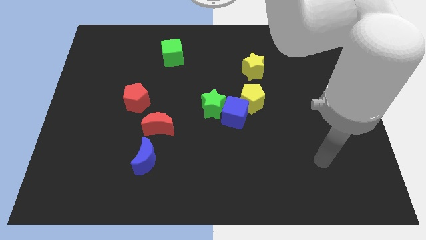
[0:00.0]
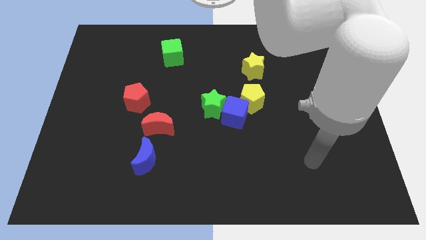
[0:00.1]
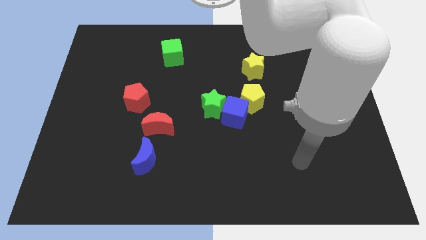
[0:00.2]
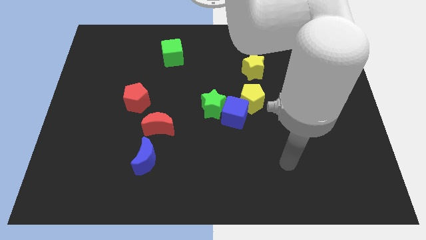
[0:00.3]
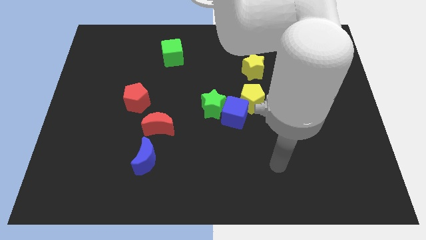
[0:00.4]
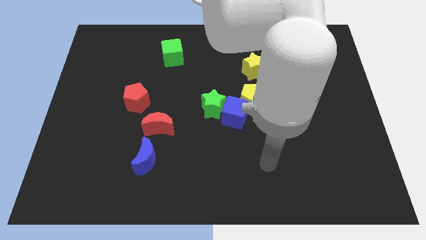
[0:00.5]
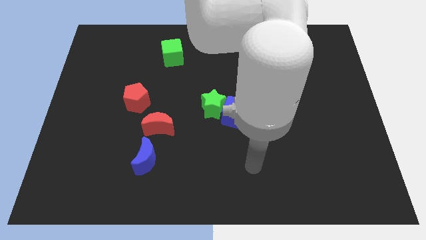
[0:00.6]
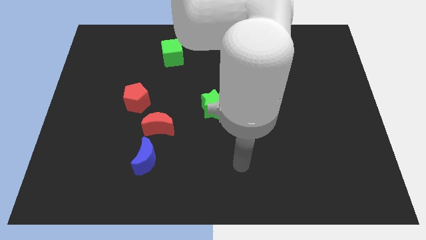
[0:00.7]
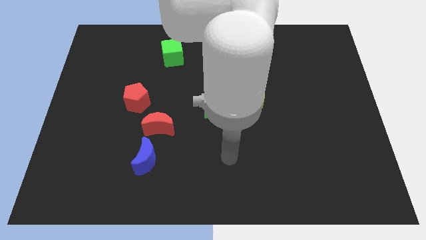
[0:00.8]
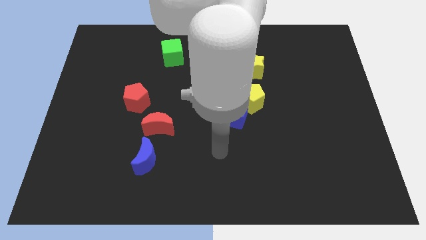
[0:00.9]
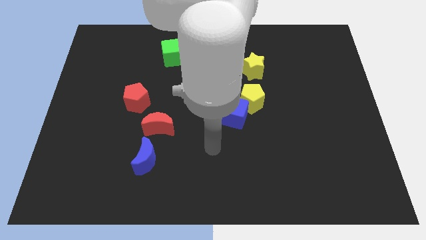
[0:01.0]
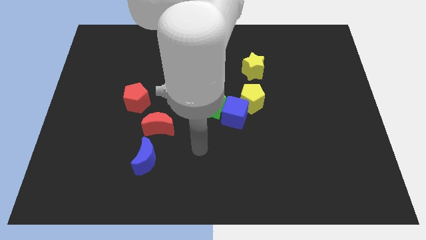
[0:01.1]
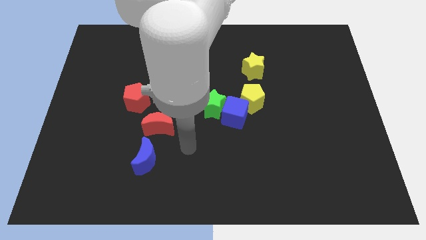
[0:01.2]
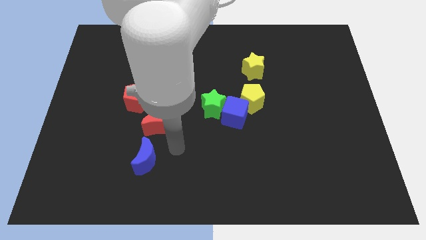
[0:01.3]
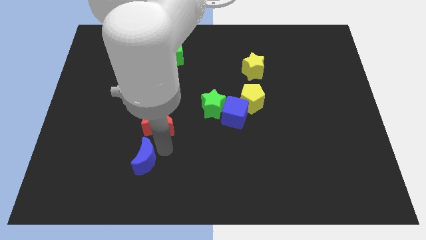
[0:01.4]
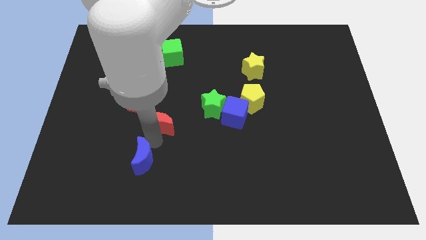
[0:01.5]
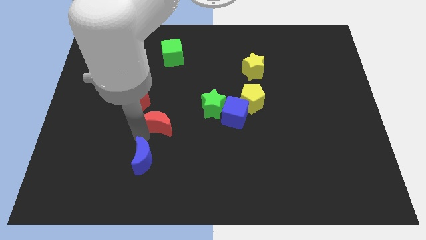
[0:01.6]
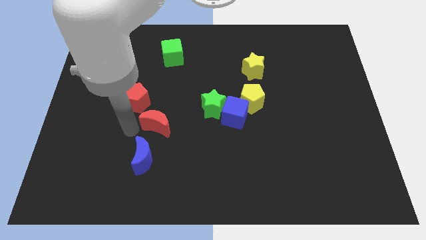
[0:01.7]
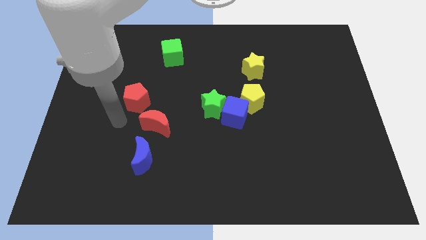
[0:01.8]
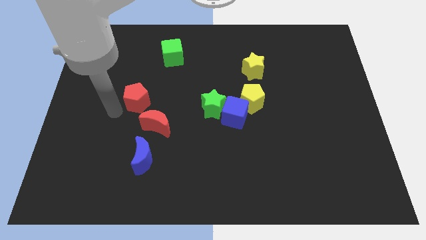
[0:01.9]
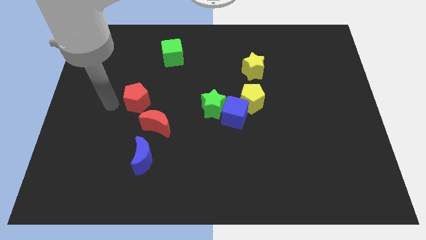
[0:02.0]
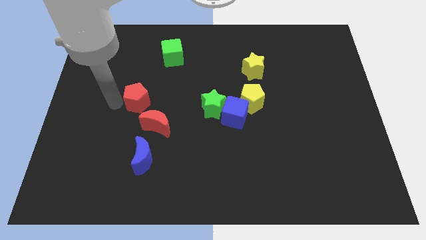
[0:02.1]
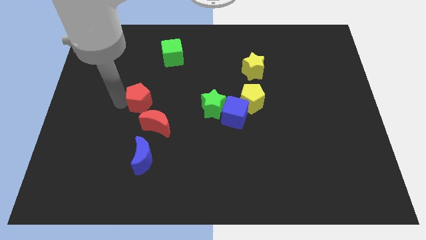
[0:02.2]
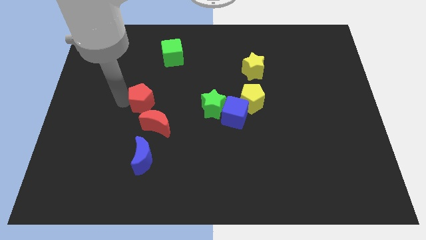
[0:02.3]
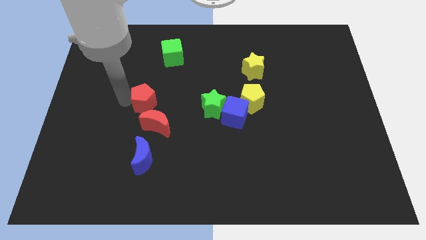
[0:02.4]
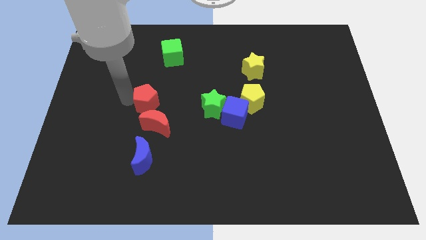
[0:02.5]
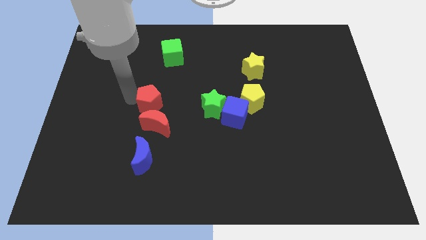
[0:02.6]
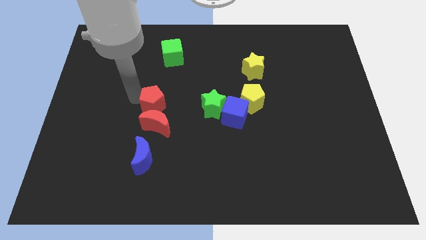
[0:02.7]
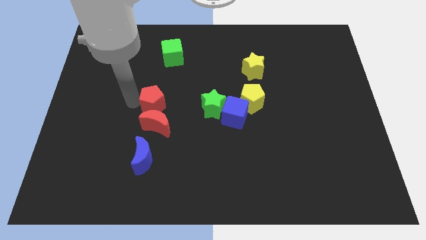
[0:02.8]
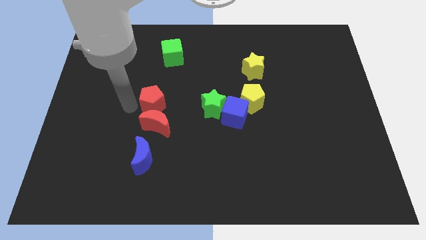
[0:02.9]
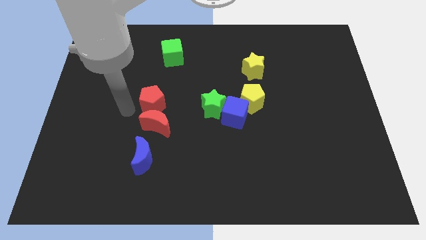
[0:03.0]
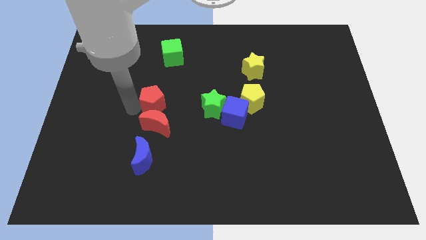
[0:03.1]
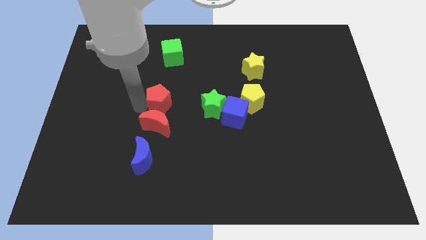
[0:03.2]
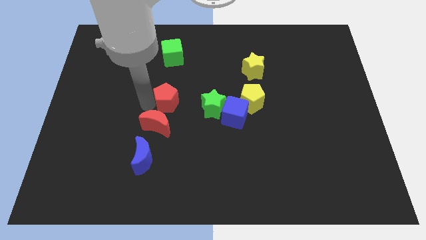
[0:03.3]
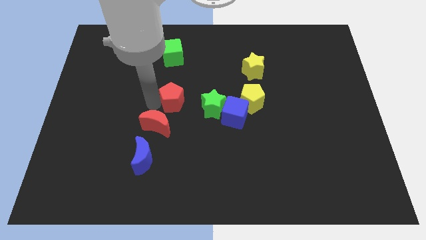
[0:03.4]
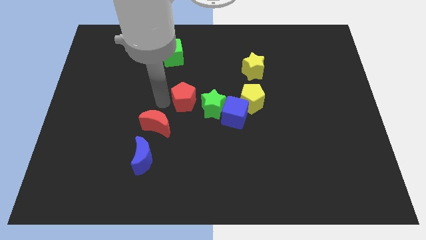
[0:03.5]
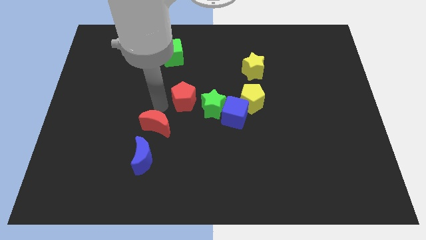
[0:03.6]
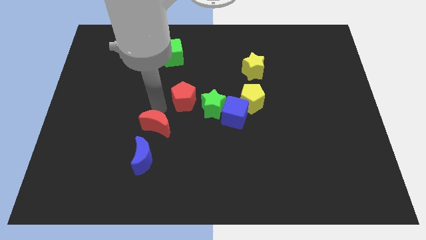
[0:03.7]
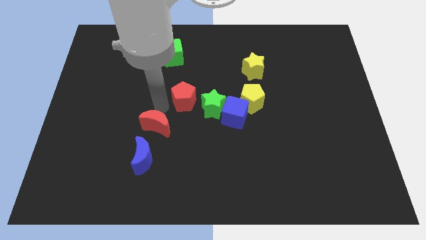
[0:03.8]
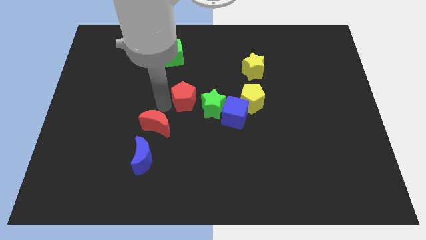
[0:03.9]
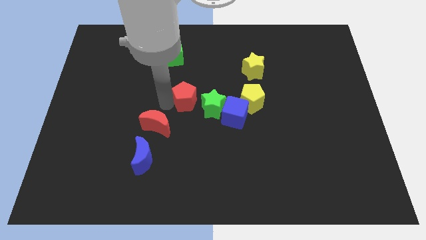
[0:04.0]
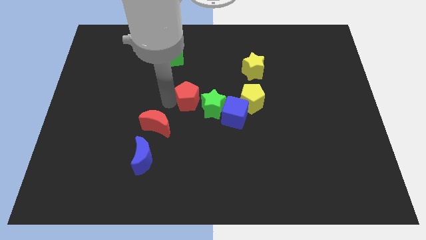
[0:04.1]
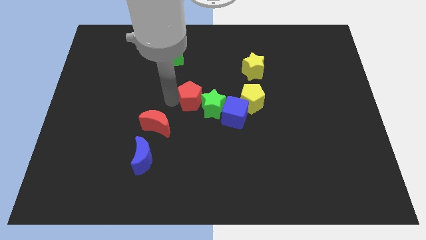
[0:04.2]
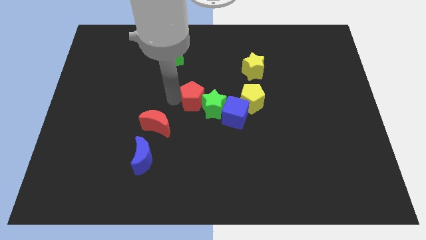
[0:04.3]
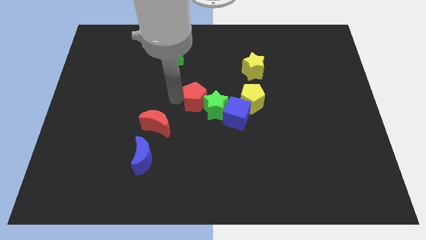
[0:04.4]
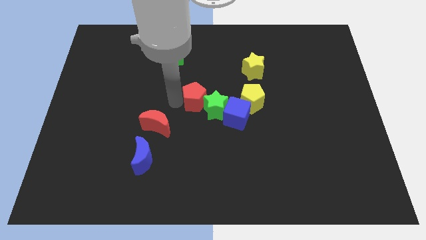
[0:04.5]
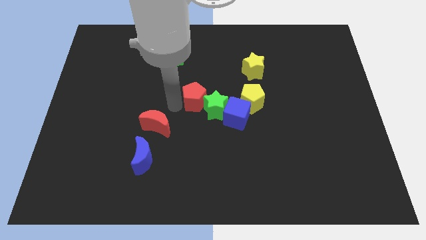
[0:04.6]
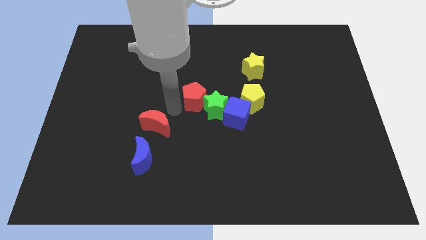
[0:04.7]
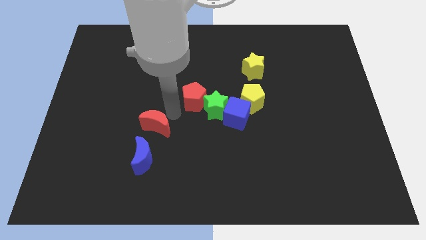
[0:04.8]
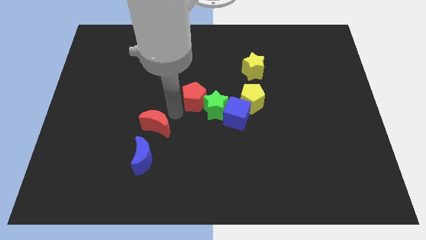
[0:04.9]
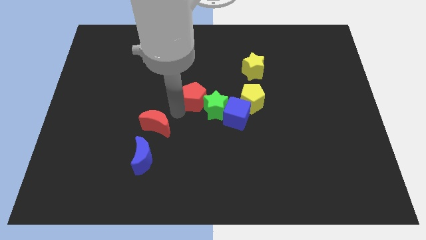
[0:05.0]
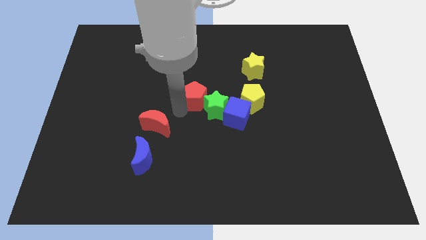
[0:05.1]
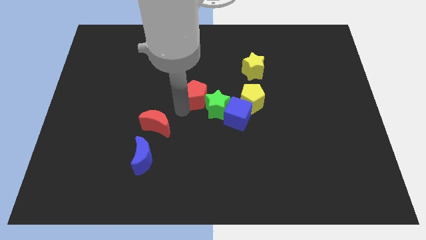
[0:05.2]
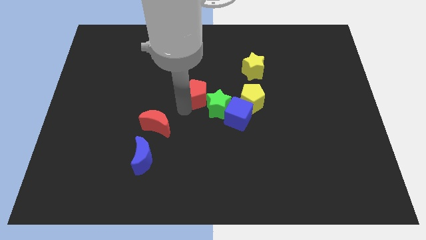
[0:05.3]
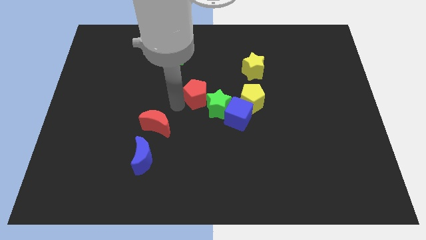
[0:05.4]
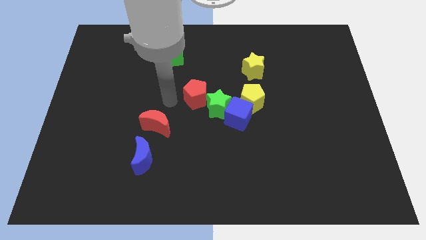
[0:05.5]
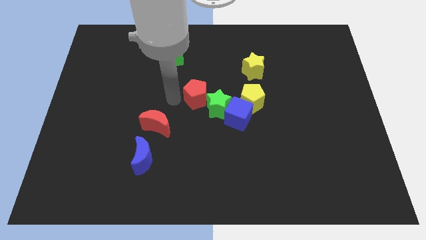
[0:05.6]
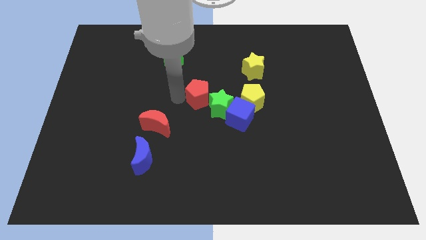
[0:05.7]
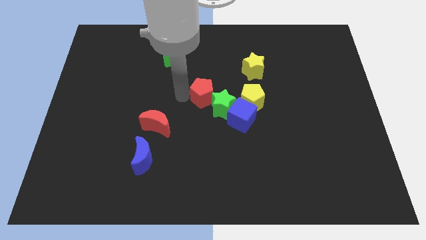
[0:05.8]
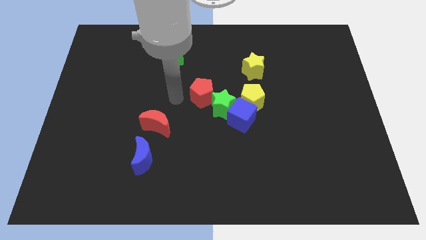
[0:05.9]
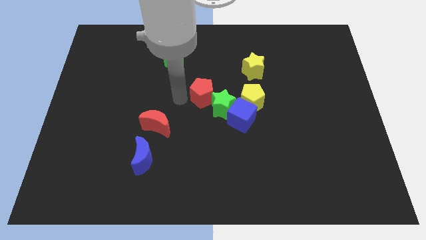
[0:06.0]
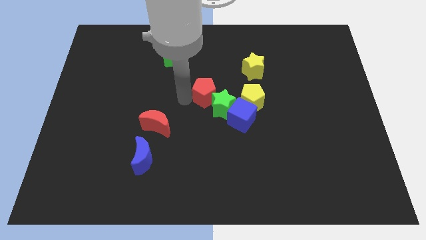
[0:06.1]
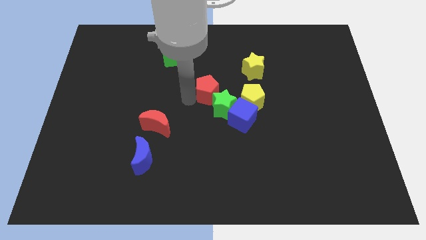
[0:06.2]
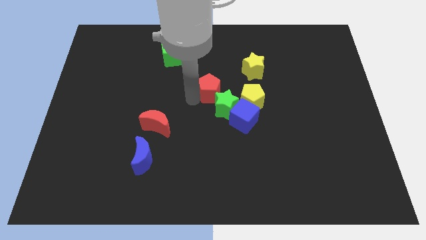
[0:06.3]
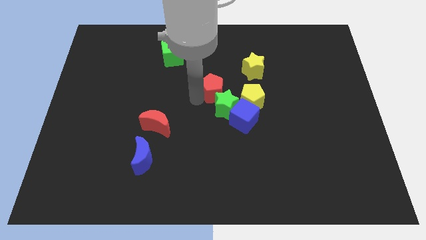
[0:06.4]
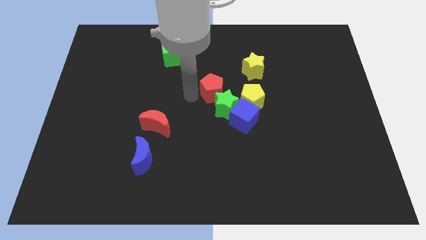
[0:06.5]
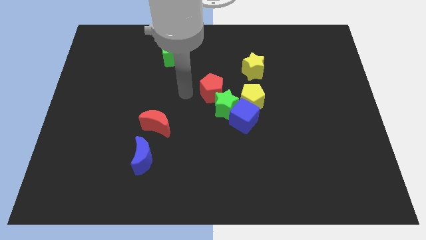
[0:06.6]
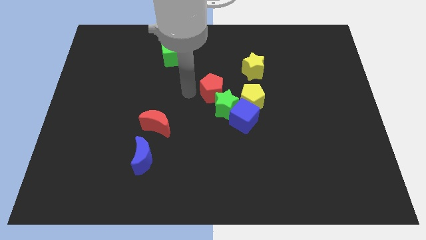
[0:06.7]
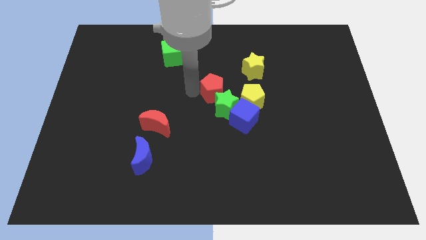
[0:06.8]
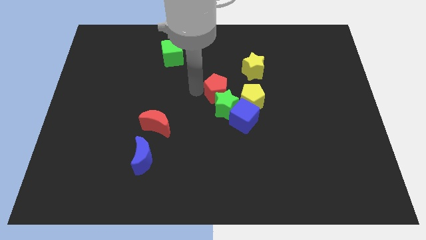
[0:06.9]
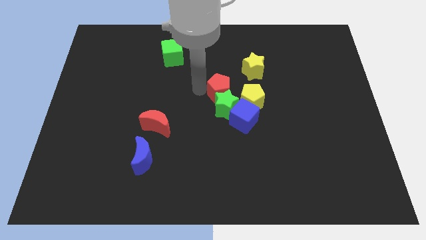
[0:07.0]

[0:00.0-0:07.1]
put the red pentagon to the top right side of the green star
